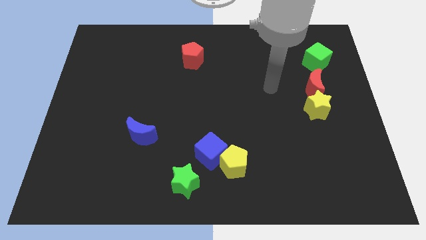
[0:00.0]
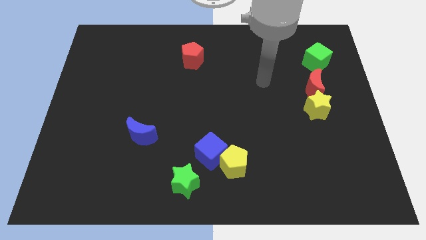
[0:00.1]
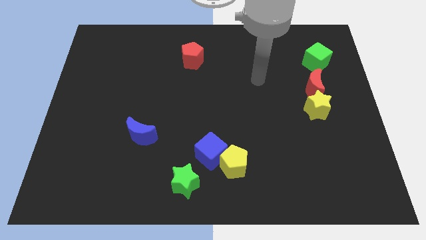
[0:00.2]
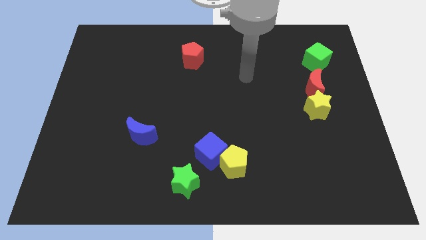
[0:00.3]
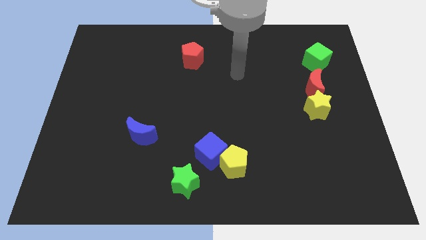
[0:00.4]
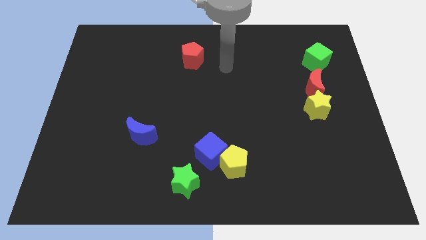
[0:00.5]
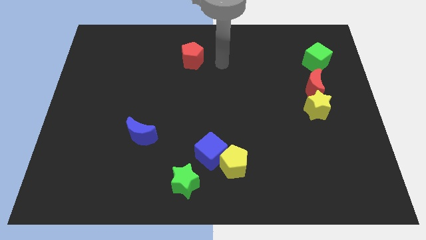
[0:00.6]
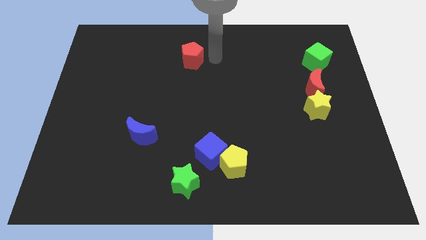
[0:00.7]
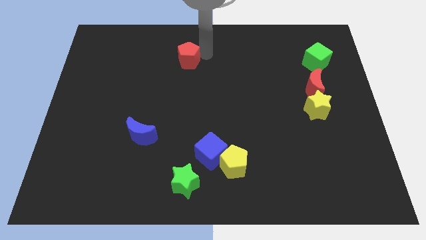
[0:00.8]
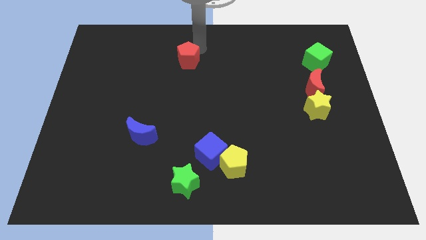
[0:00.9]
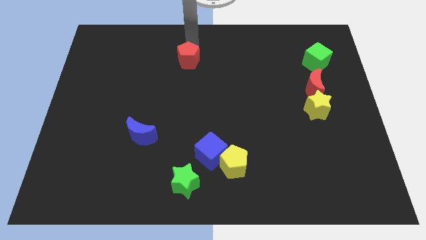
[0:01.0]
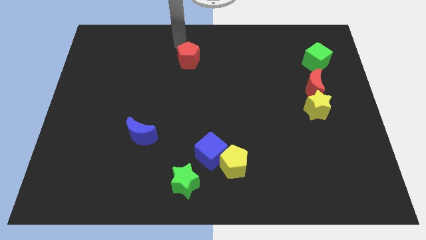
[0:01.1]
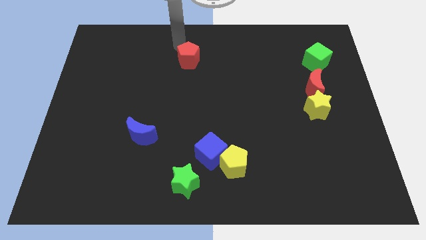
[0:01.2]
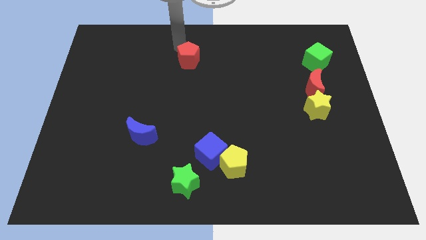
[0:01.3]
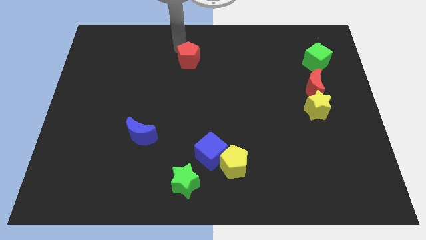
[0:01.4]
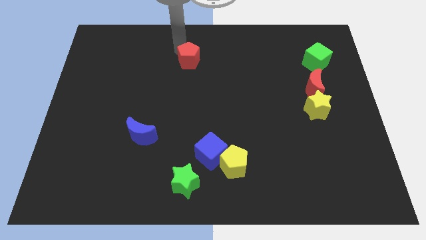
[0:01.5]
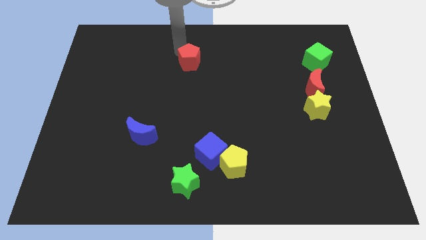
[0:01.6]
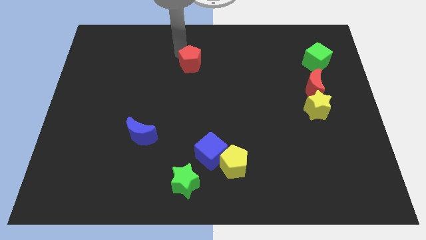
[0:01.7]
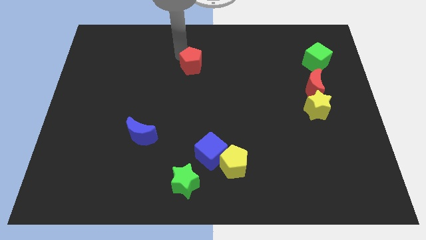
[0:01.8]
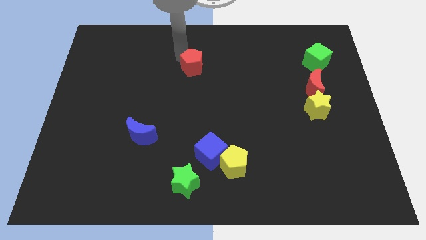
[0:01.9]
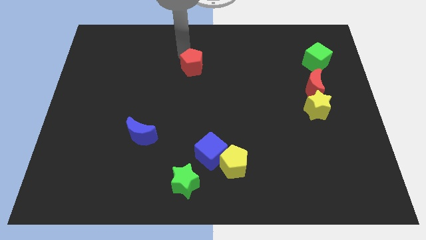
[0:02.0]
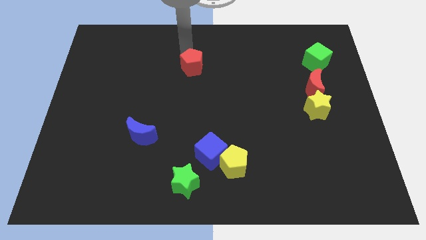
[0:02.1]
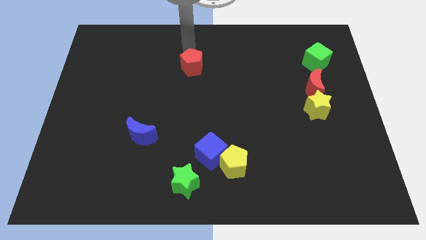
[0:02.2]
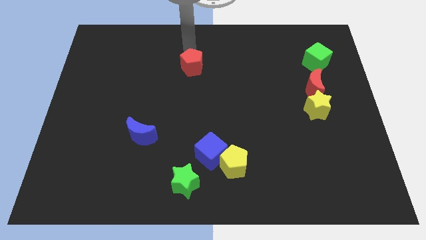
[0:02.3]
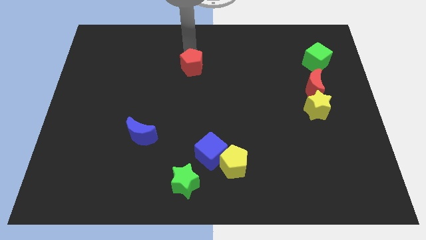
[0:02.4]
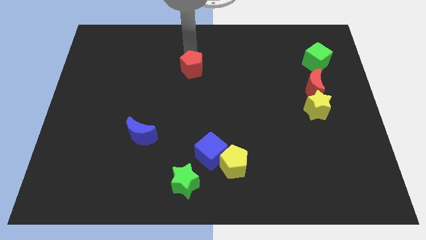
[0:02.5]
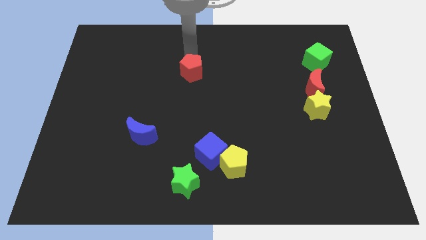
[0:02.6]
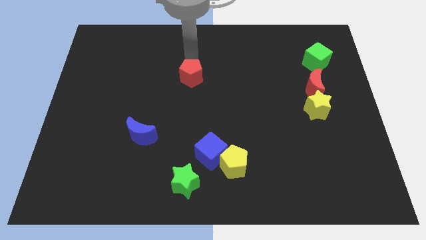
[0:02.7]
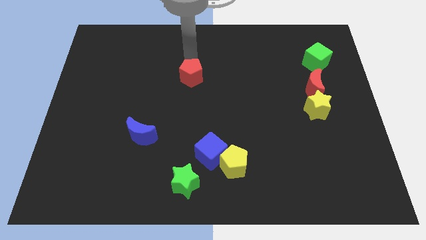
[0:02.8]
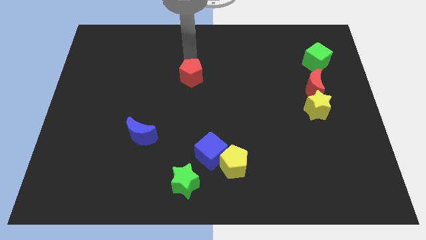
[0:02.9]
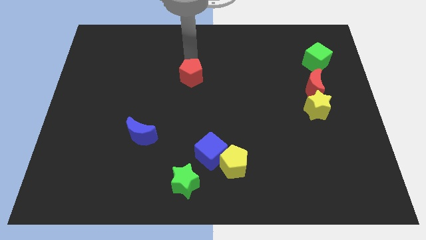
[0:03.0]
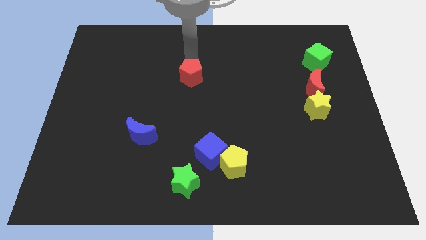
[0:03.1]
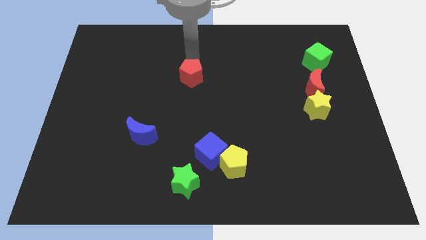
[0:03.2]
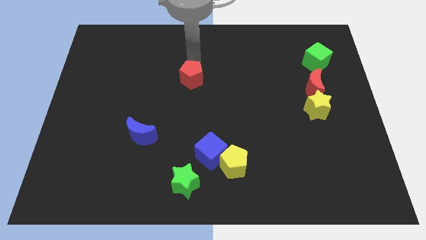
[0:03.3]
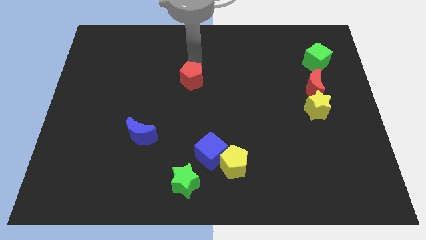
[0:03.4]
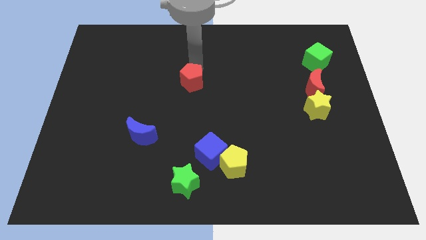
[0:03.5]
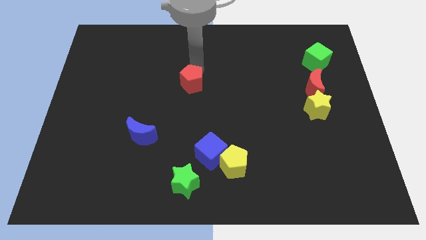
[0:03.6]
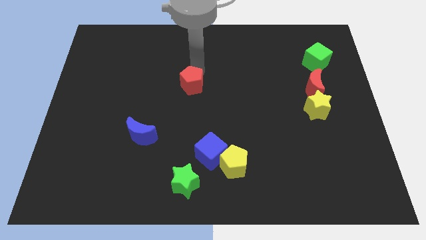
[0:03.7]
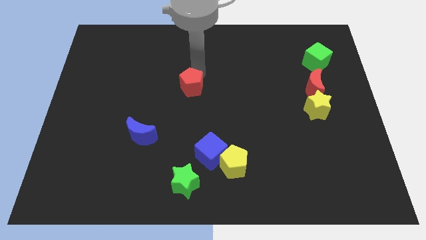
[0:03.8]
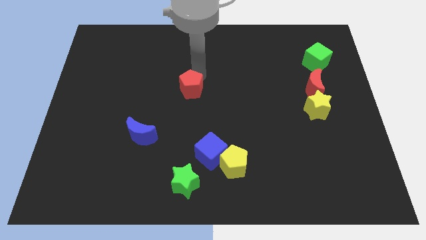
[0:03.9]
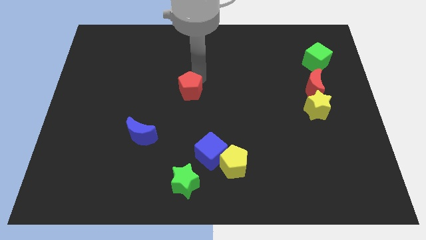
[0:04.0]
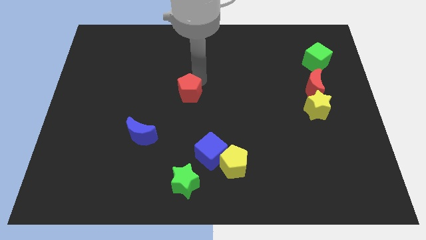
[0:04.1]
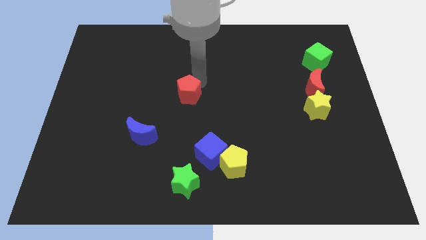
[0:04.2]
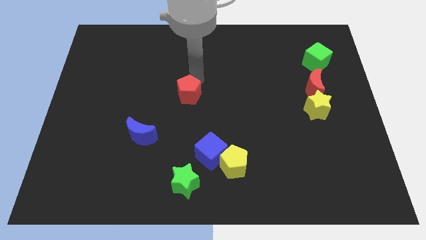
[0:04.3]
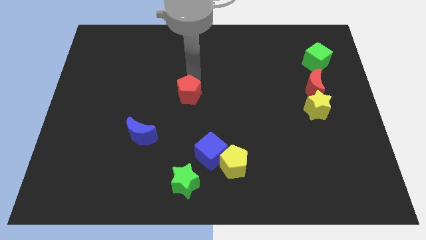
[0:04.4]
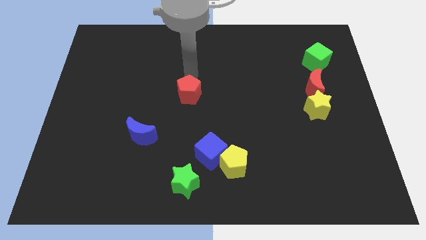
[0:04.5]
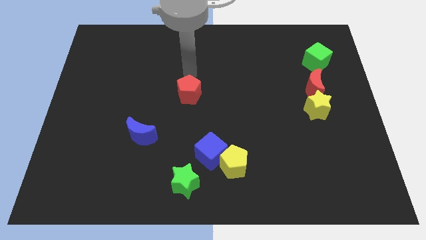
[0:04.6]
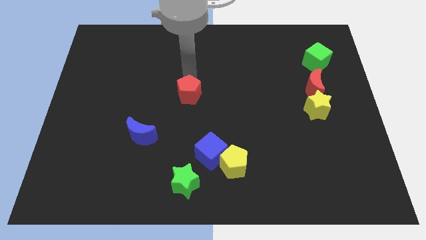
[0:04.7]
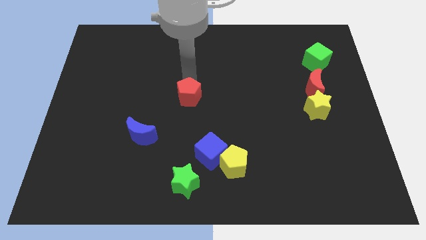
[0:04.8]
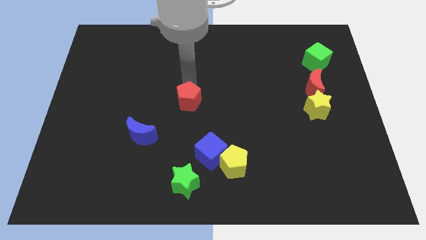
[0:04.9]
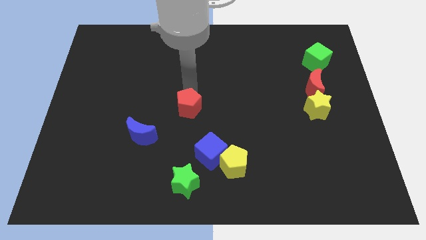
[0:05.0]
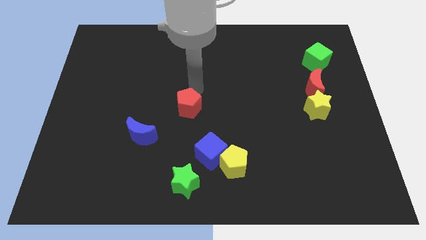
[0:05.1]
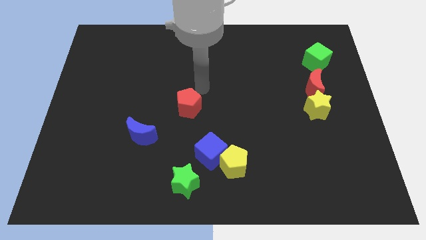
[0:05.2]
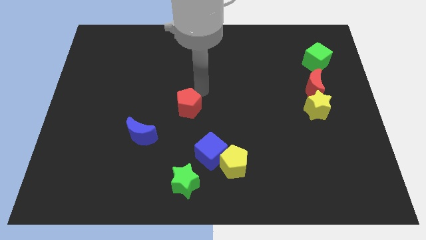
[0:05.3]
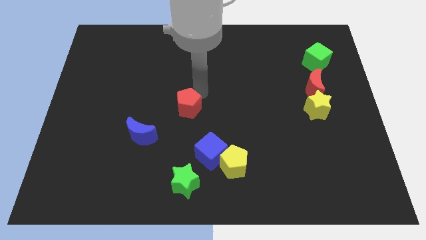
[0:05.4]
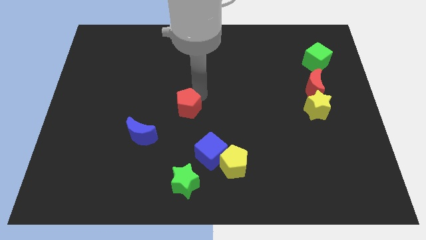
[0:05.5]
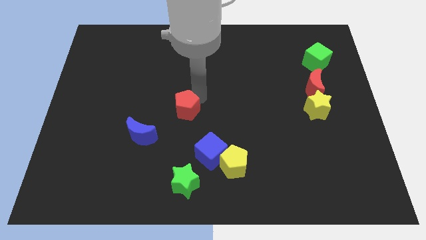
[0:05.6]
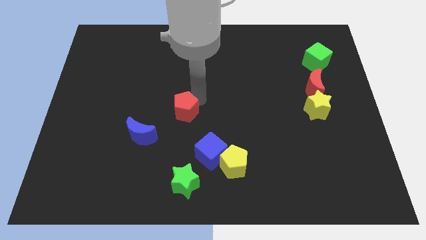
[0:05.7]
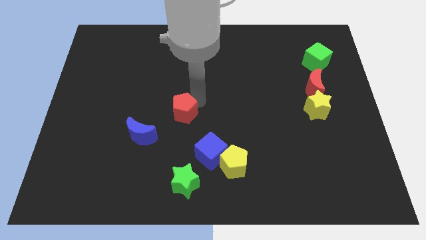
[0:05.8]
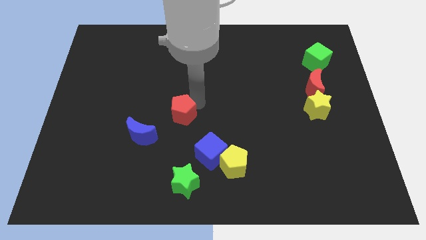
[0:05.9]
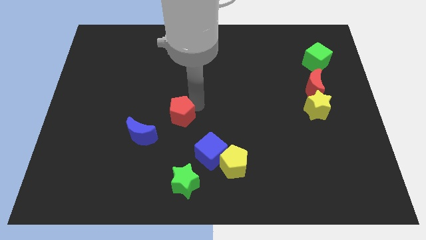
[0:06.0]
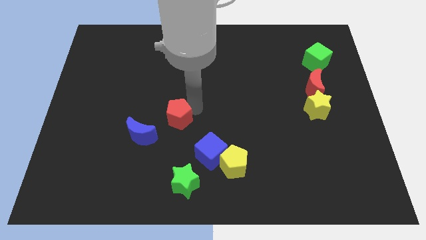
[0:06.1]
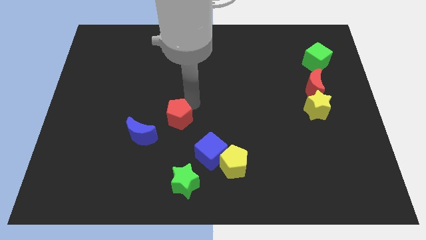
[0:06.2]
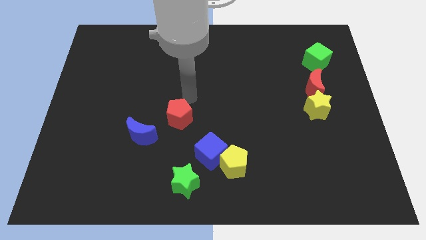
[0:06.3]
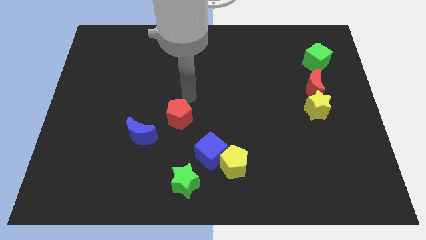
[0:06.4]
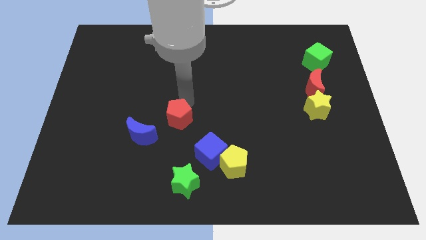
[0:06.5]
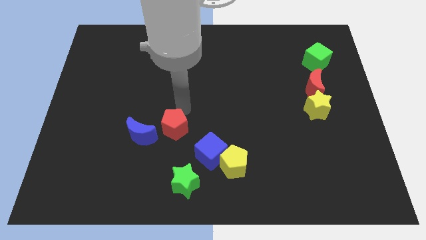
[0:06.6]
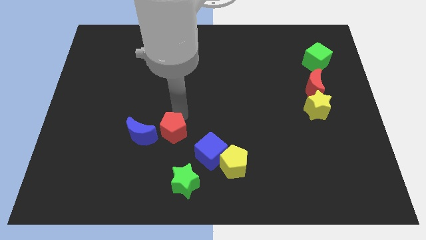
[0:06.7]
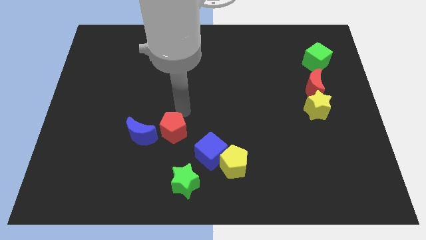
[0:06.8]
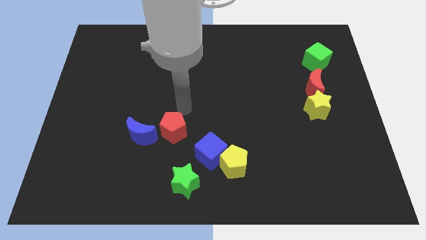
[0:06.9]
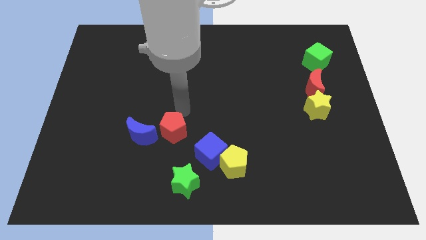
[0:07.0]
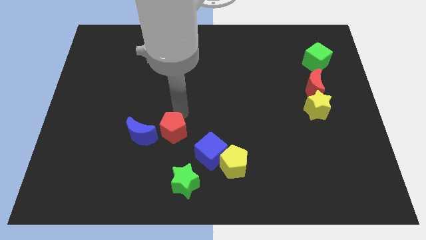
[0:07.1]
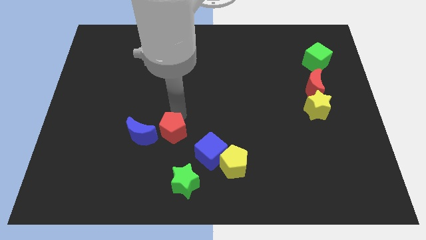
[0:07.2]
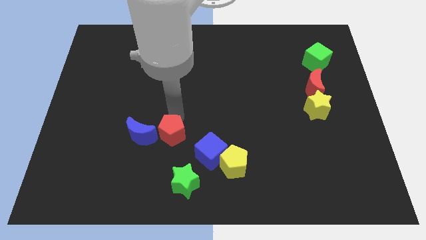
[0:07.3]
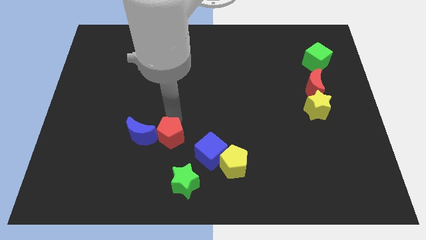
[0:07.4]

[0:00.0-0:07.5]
put the red pentagon to the left side of the blue cube
